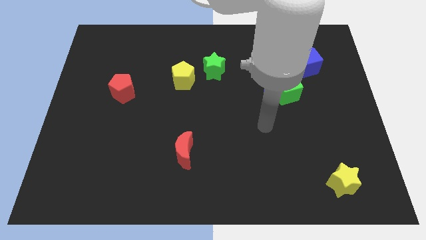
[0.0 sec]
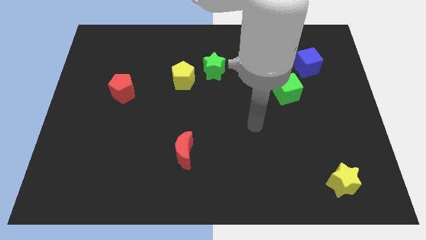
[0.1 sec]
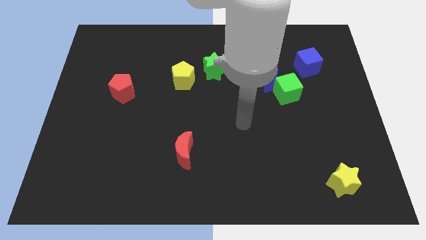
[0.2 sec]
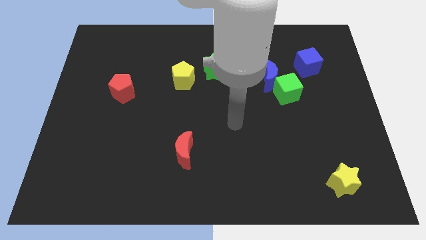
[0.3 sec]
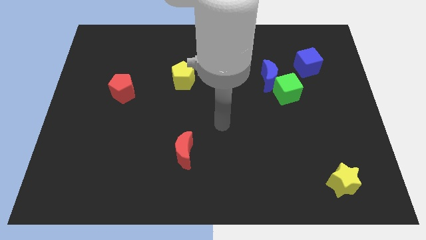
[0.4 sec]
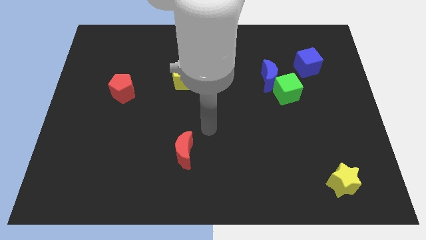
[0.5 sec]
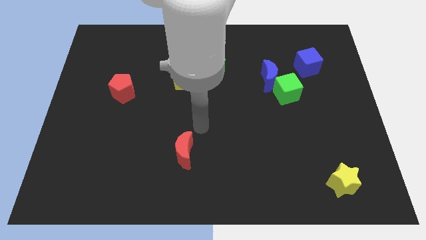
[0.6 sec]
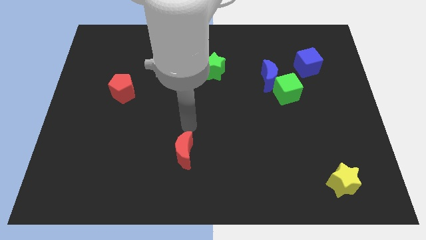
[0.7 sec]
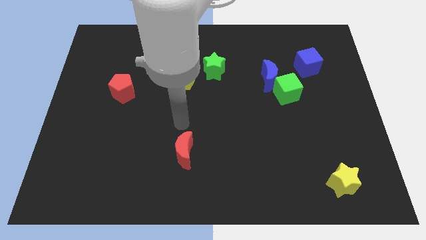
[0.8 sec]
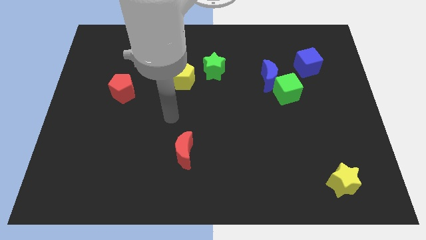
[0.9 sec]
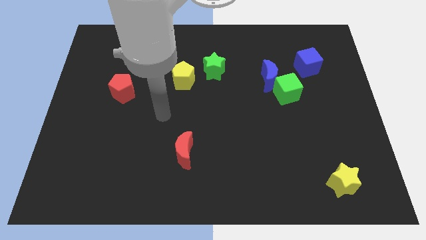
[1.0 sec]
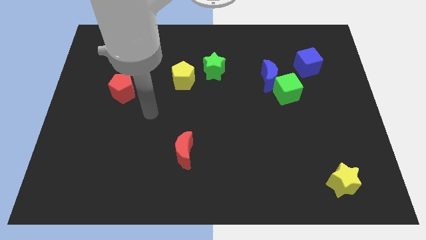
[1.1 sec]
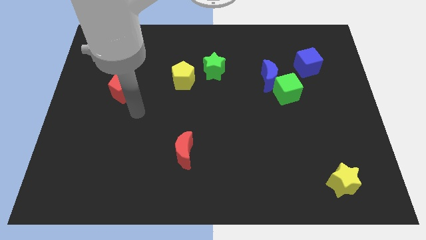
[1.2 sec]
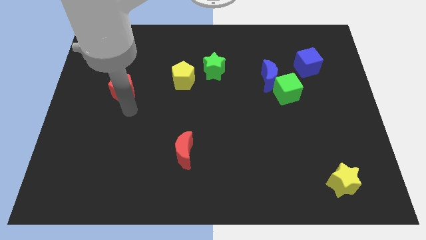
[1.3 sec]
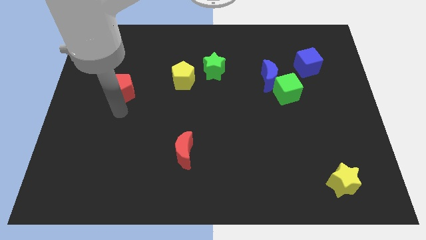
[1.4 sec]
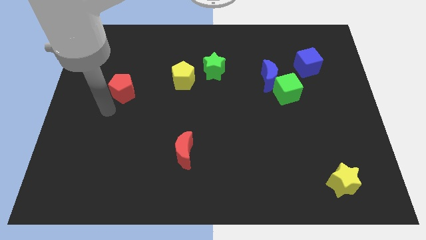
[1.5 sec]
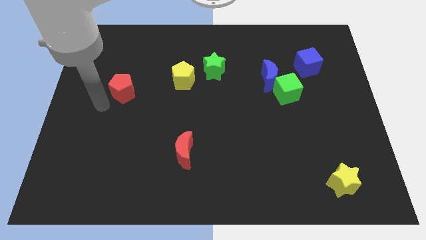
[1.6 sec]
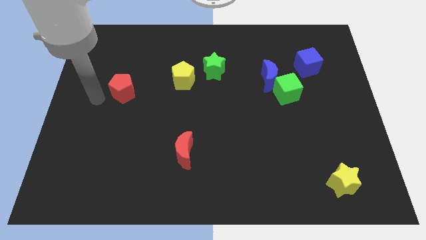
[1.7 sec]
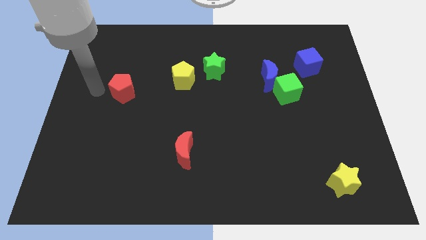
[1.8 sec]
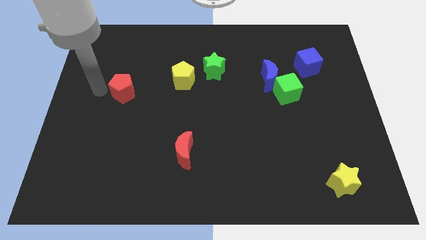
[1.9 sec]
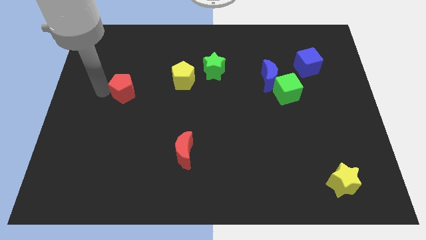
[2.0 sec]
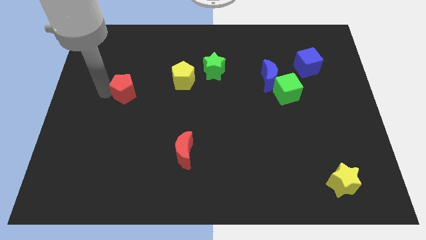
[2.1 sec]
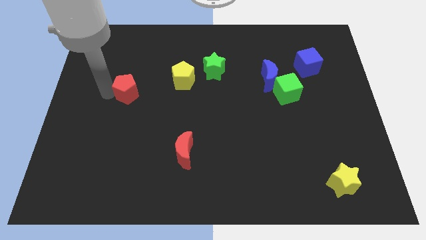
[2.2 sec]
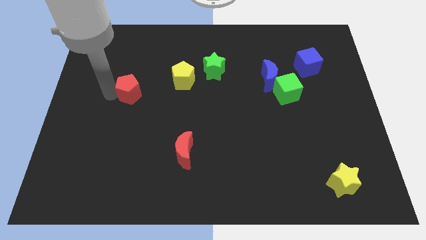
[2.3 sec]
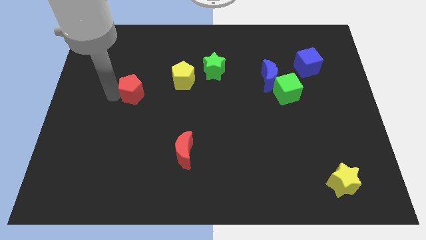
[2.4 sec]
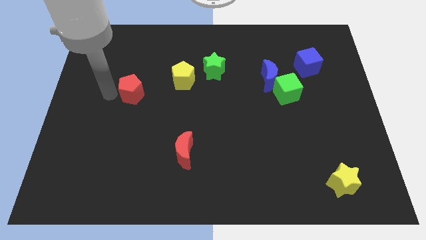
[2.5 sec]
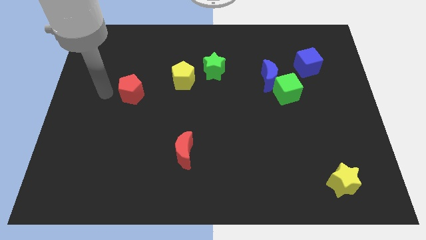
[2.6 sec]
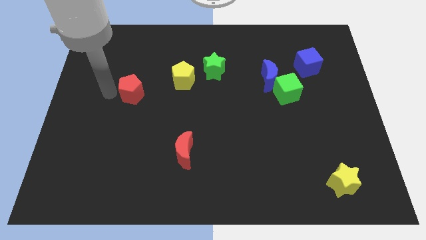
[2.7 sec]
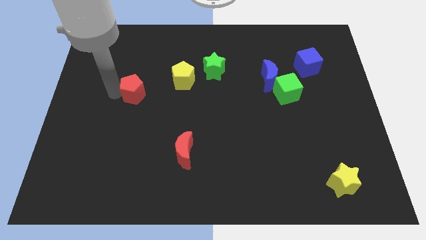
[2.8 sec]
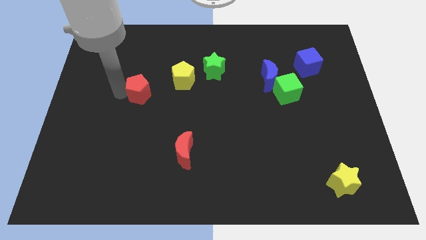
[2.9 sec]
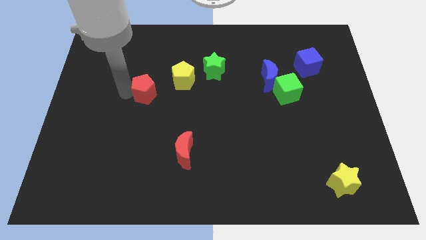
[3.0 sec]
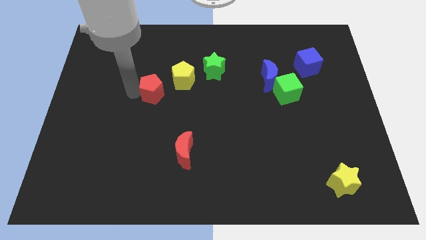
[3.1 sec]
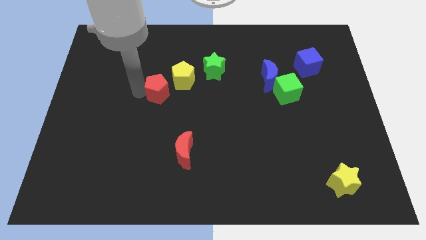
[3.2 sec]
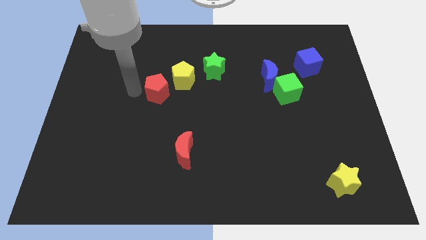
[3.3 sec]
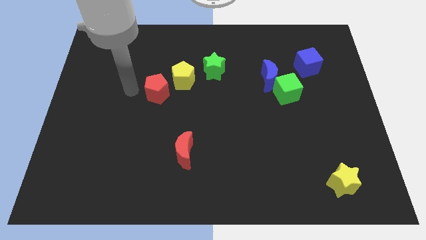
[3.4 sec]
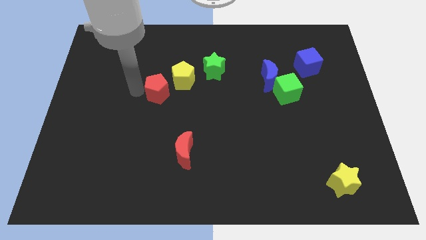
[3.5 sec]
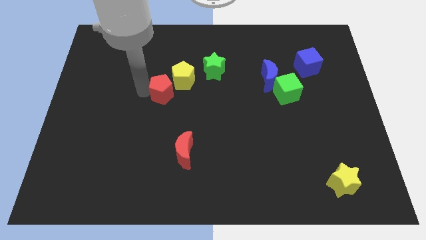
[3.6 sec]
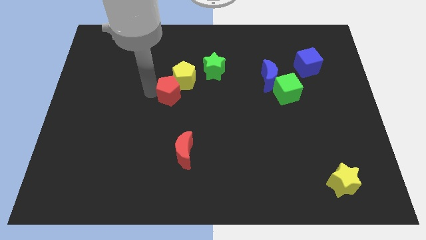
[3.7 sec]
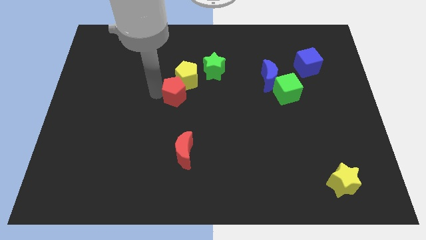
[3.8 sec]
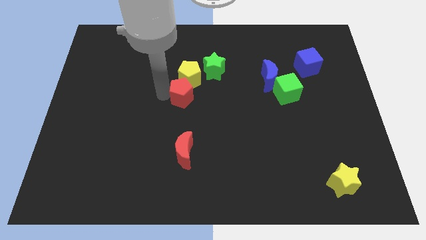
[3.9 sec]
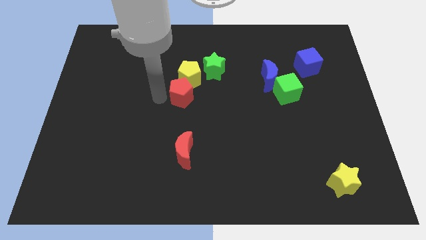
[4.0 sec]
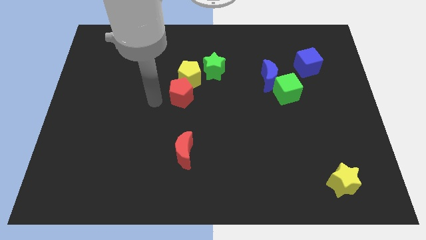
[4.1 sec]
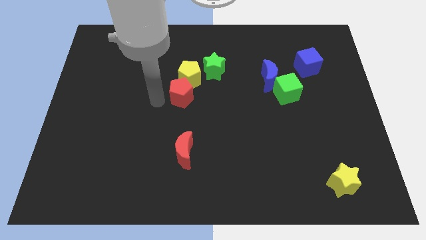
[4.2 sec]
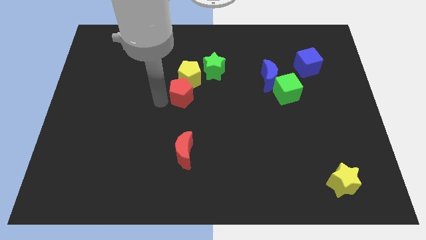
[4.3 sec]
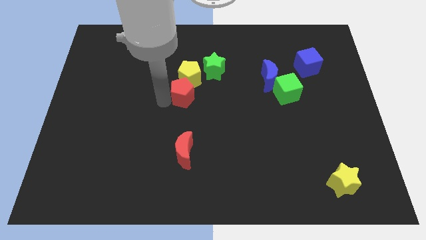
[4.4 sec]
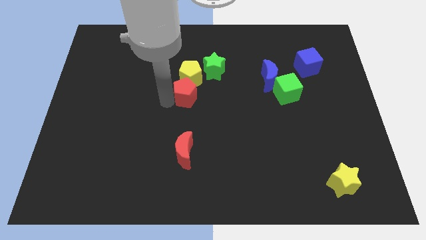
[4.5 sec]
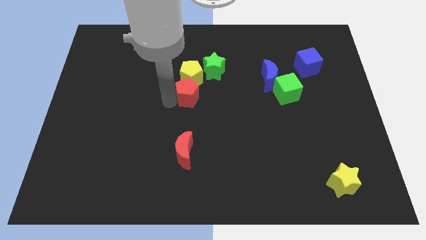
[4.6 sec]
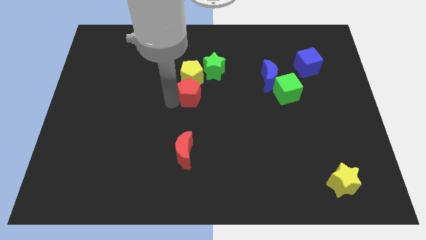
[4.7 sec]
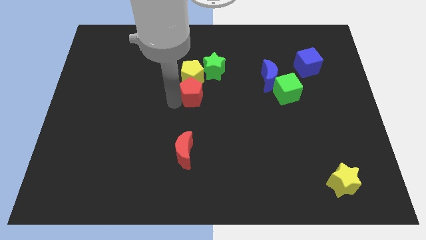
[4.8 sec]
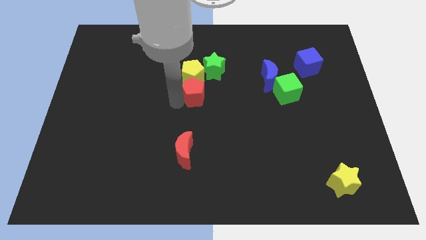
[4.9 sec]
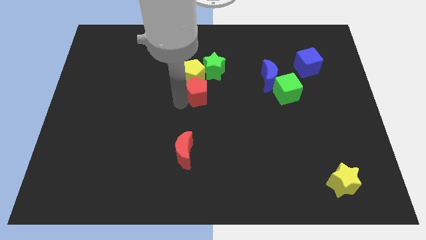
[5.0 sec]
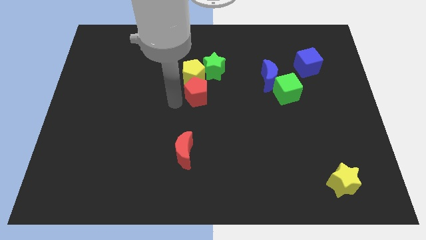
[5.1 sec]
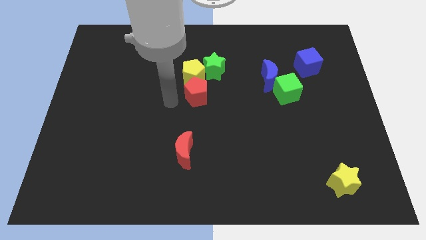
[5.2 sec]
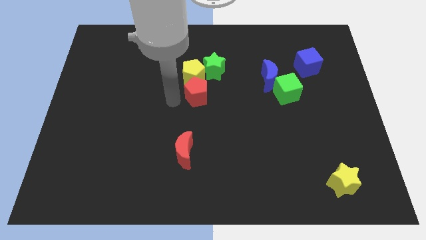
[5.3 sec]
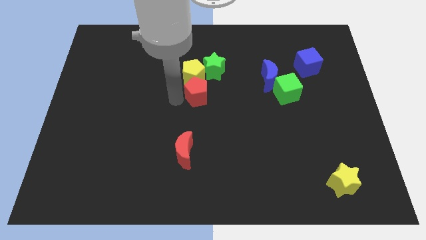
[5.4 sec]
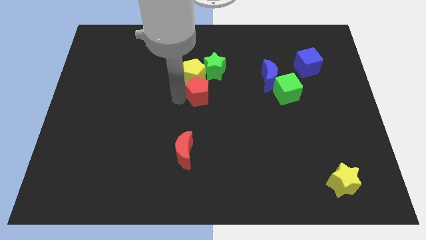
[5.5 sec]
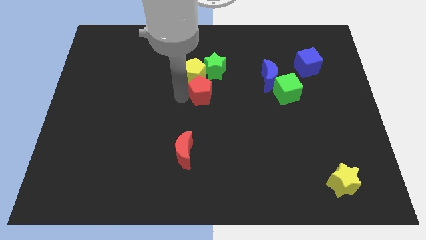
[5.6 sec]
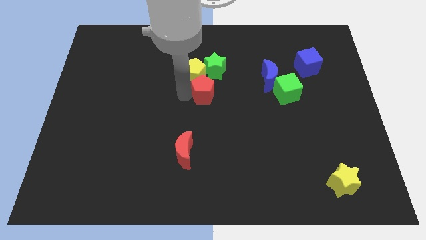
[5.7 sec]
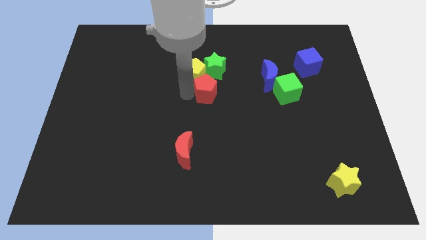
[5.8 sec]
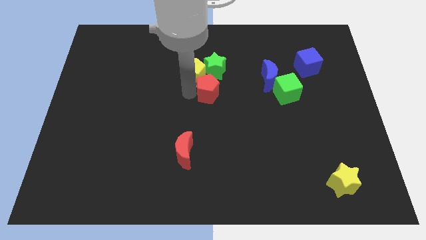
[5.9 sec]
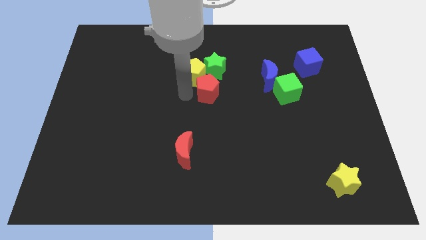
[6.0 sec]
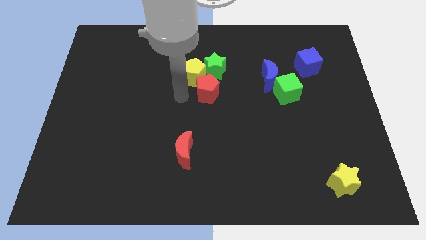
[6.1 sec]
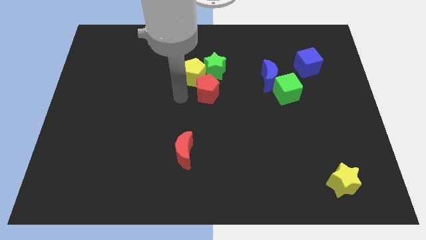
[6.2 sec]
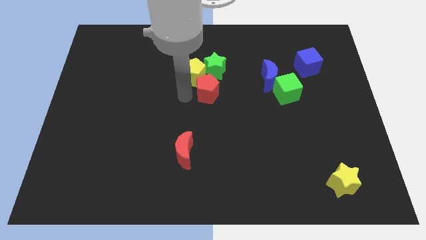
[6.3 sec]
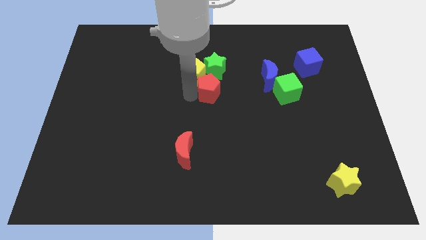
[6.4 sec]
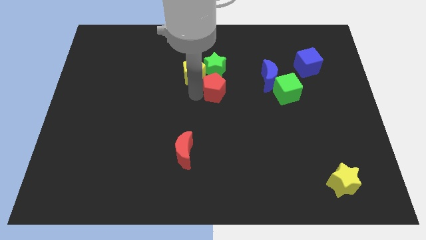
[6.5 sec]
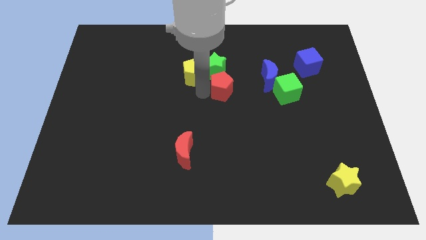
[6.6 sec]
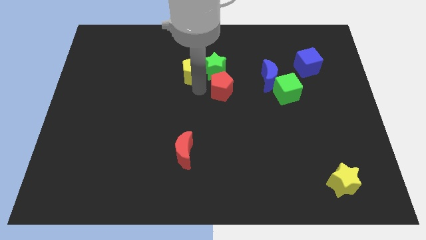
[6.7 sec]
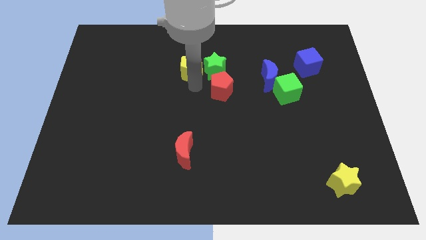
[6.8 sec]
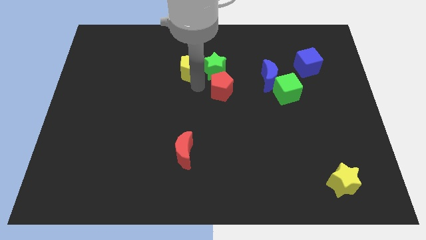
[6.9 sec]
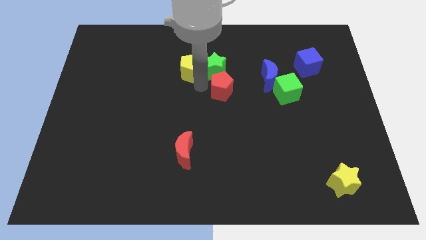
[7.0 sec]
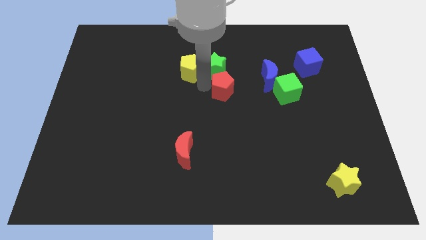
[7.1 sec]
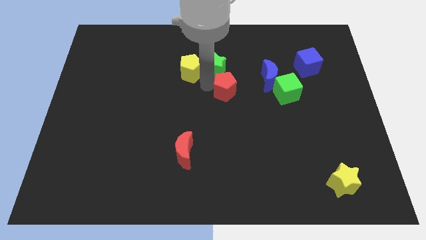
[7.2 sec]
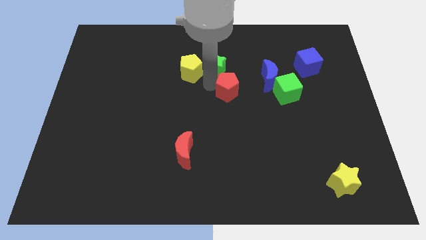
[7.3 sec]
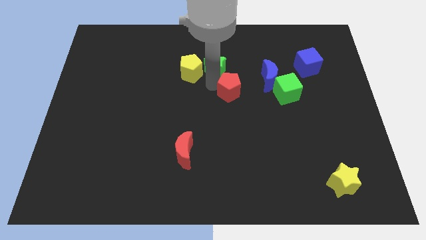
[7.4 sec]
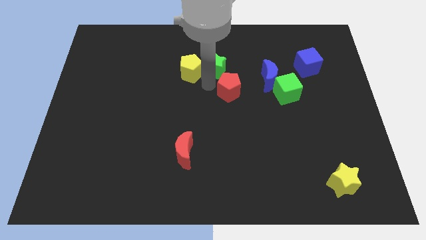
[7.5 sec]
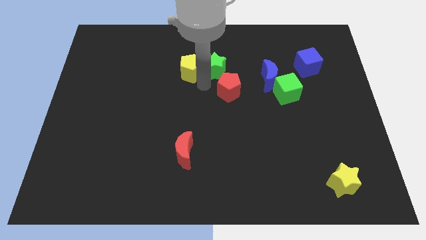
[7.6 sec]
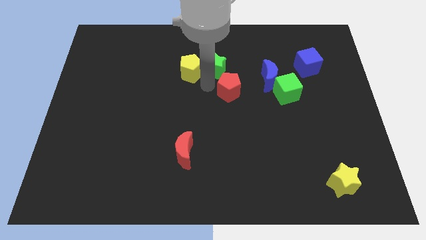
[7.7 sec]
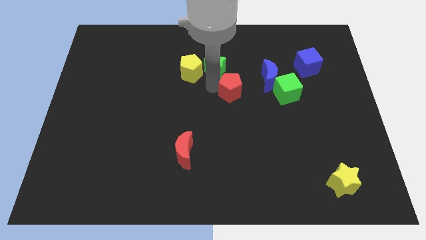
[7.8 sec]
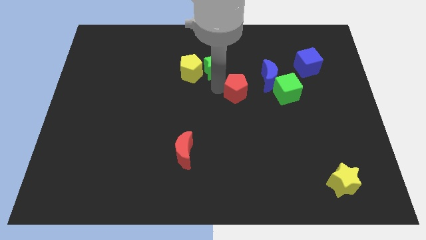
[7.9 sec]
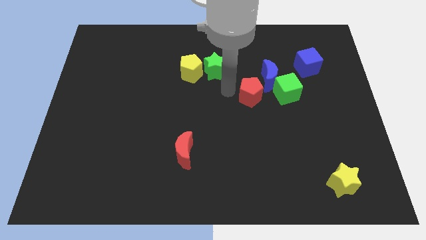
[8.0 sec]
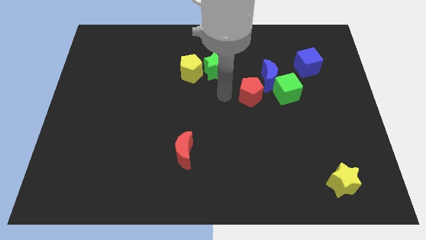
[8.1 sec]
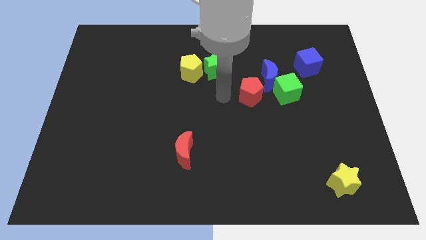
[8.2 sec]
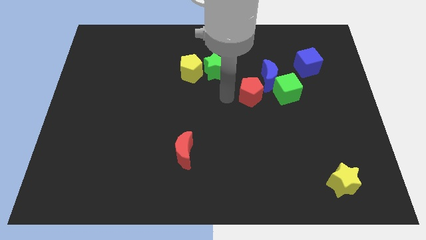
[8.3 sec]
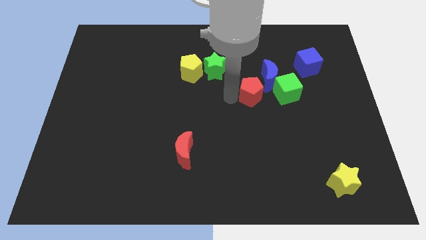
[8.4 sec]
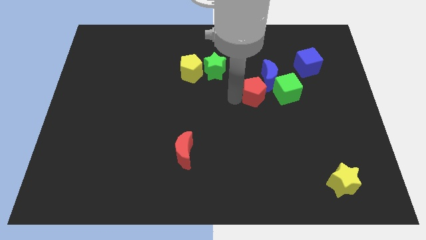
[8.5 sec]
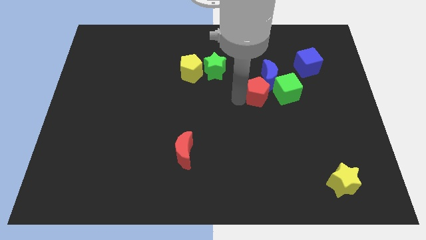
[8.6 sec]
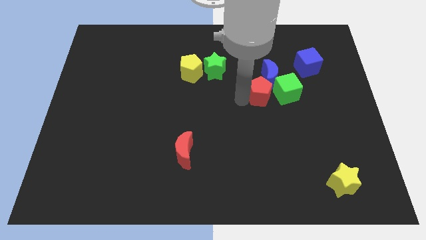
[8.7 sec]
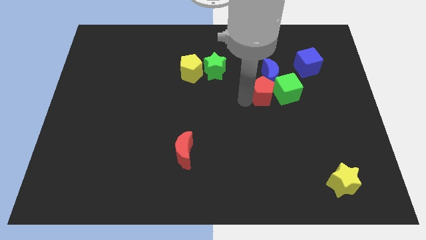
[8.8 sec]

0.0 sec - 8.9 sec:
push the red pentagon close to the green cube
